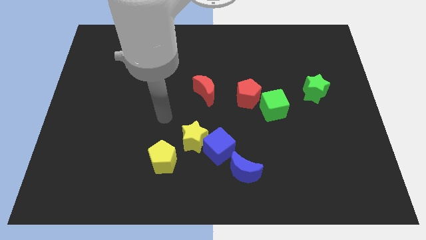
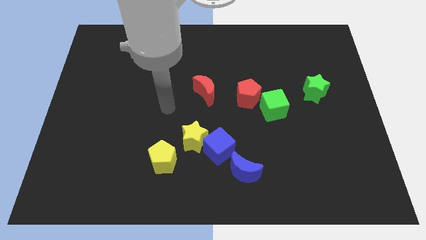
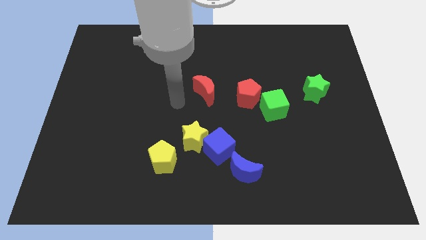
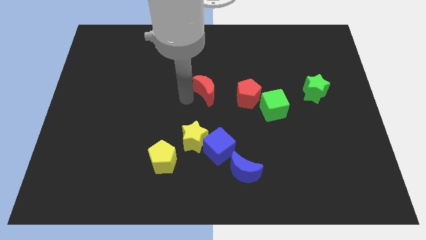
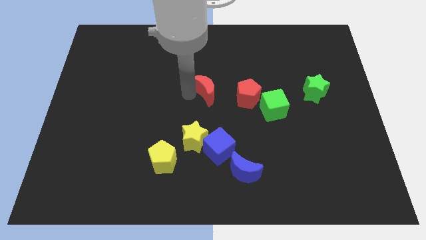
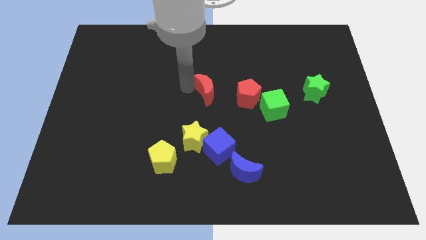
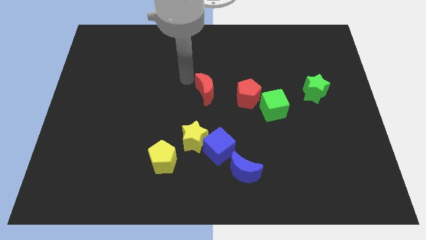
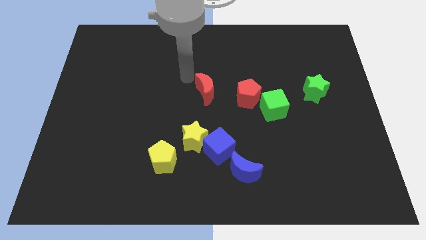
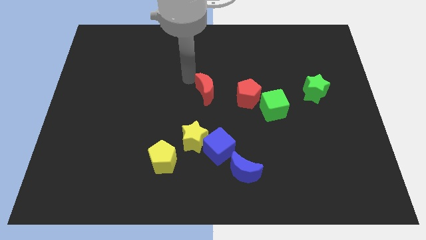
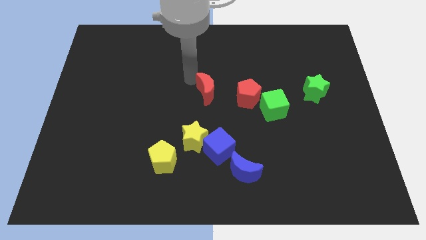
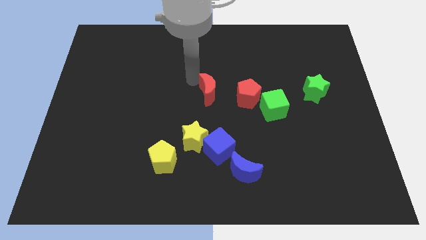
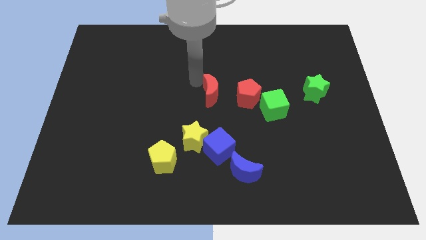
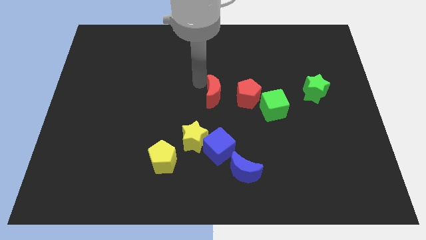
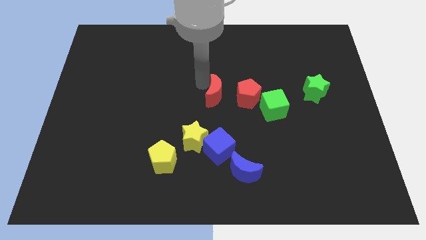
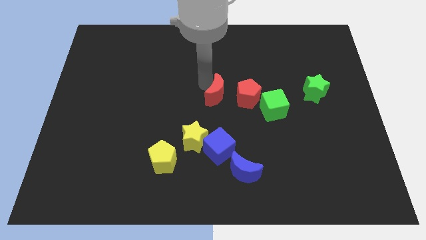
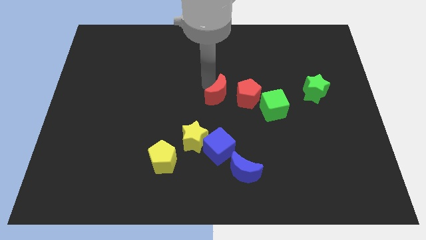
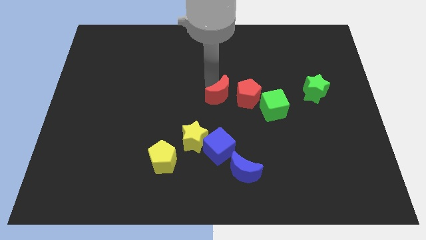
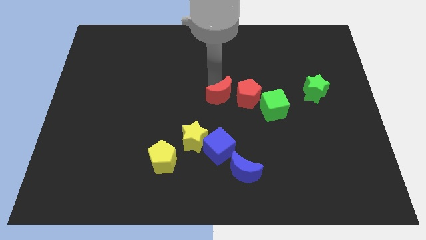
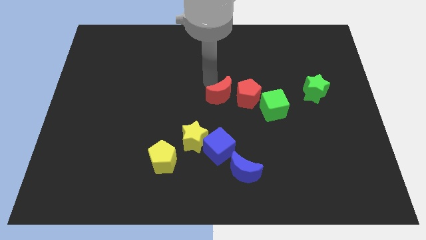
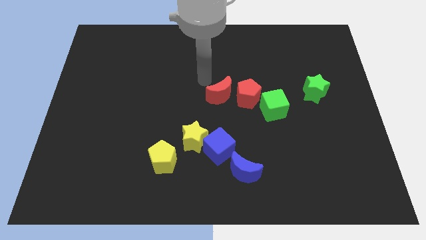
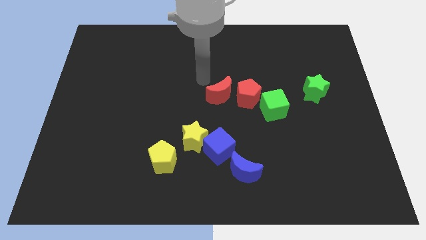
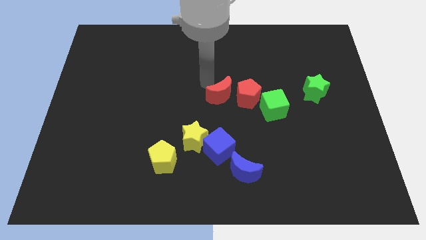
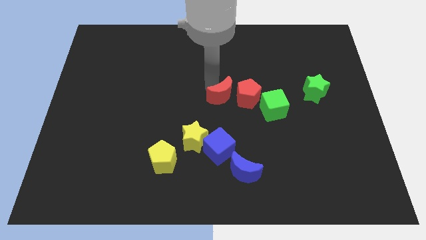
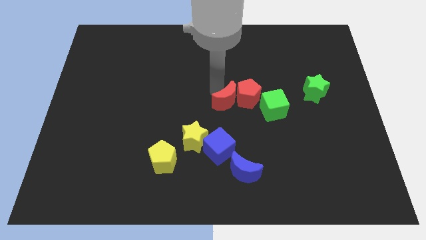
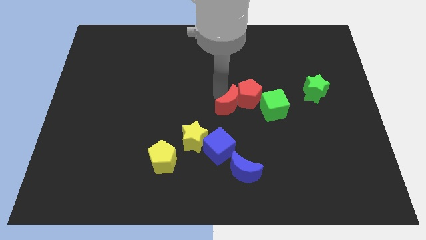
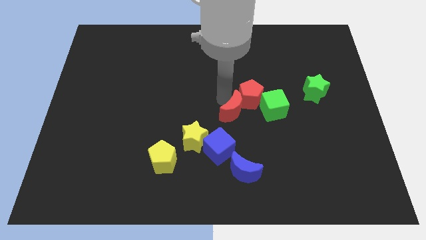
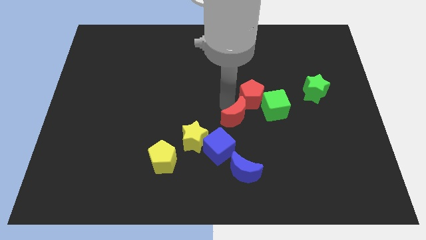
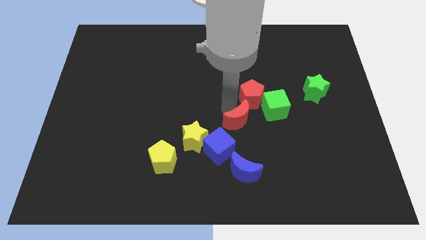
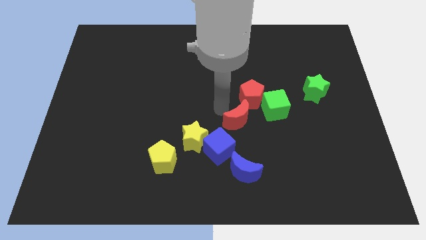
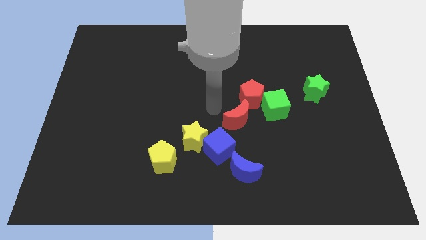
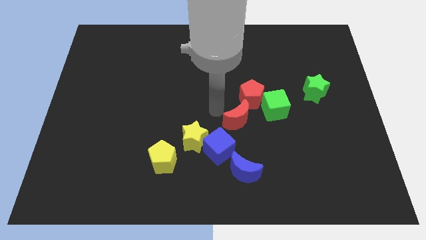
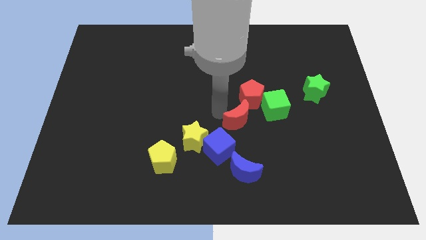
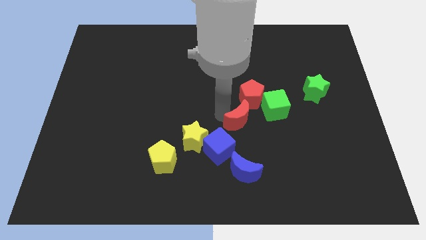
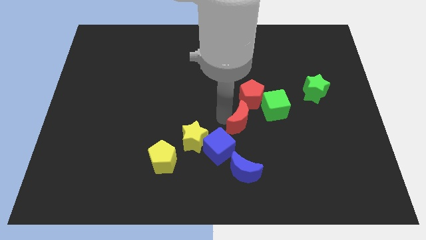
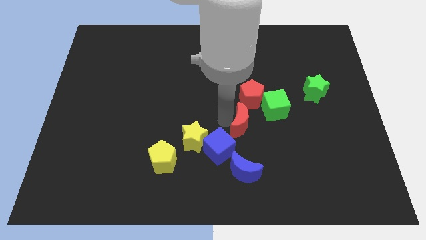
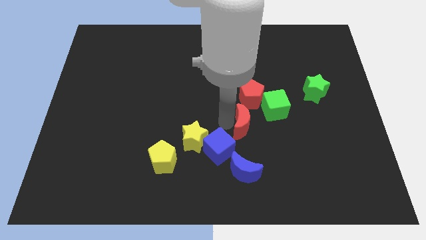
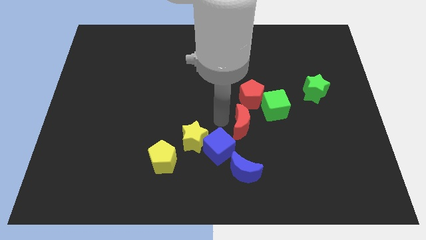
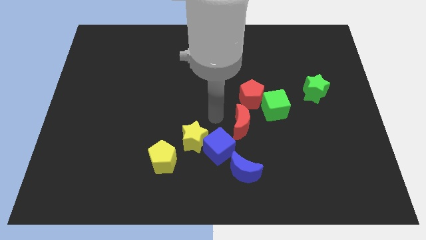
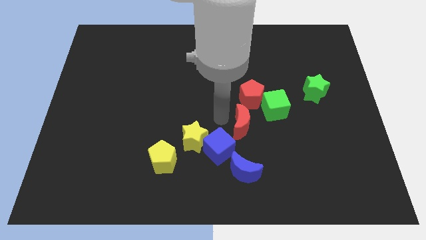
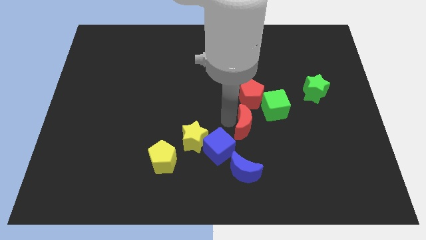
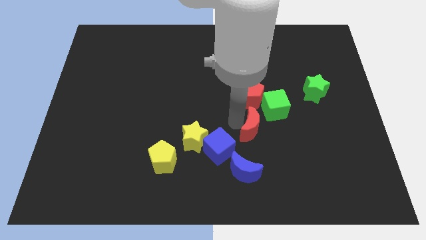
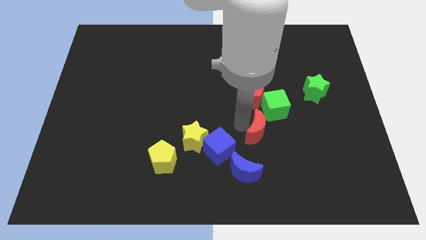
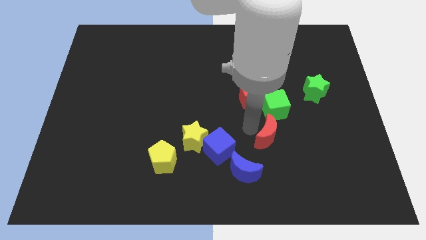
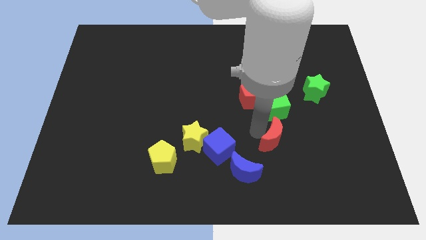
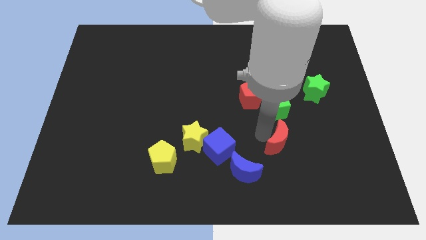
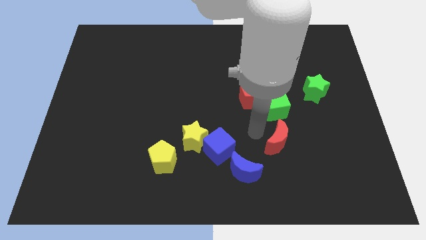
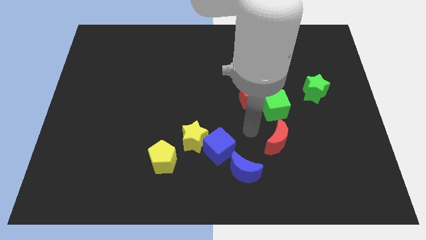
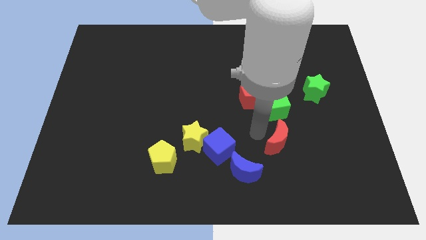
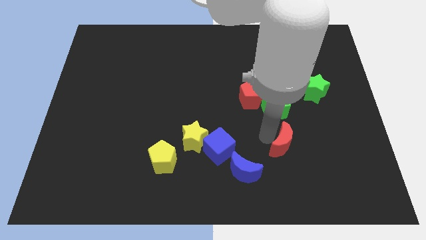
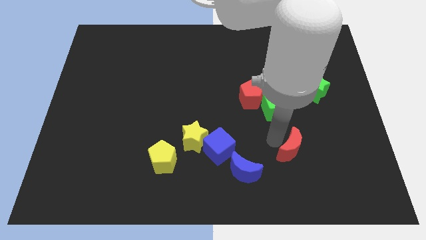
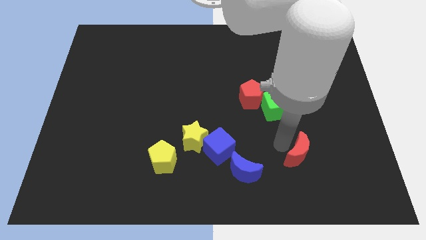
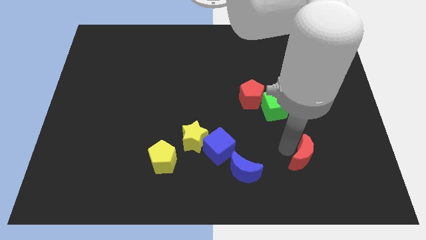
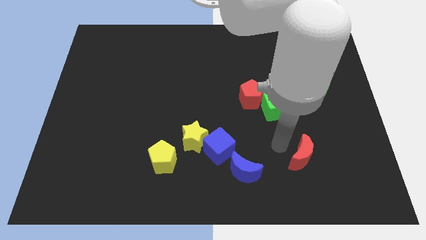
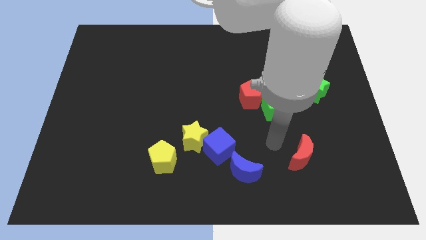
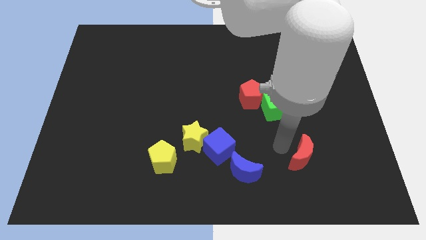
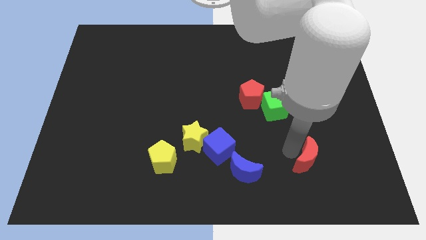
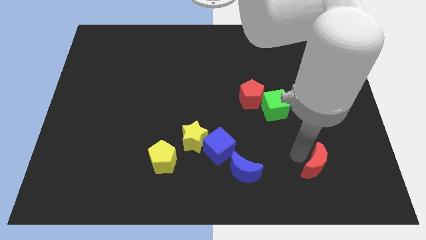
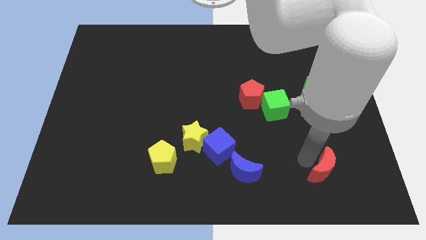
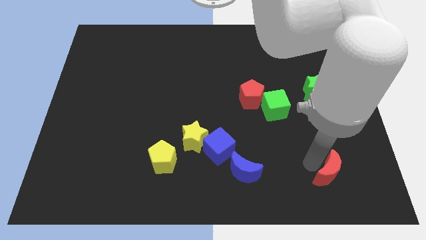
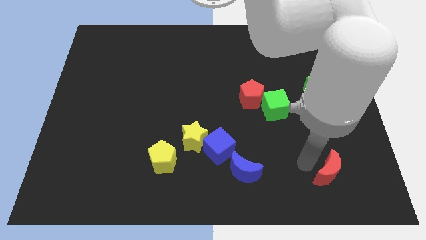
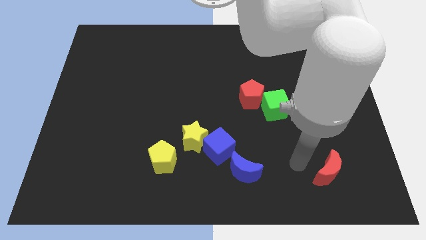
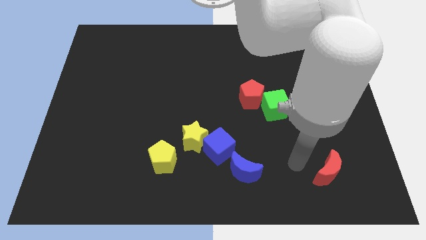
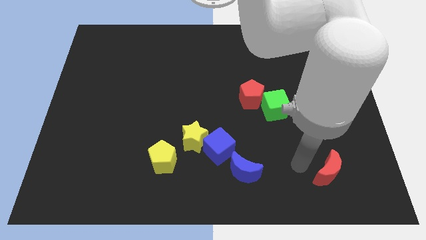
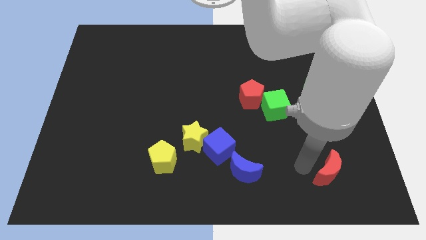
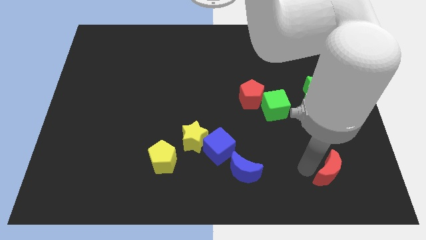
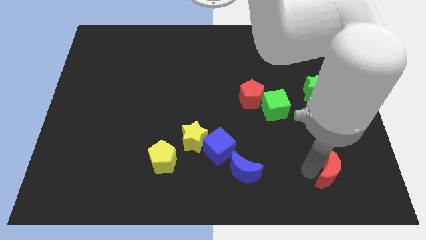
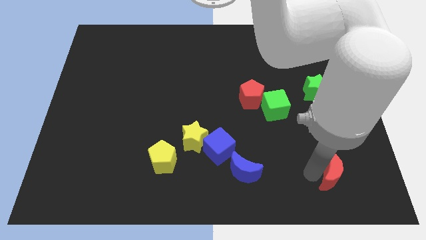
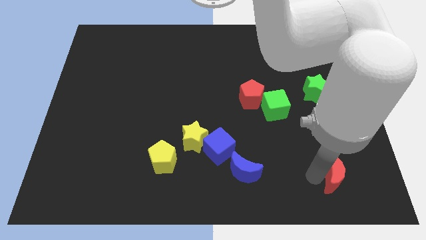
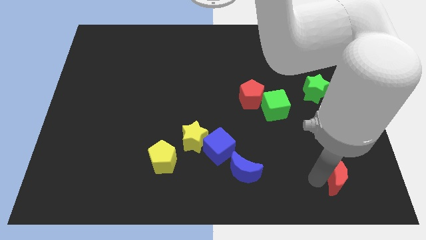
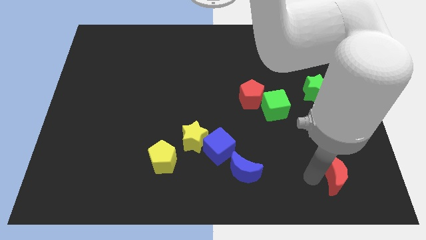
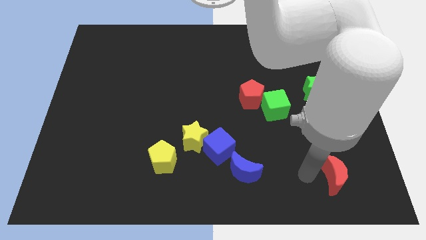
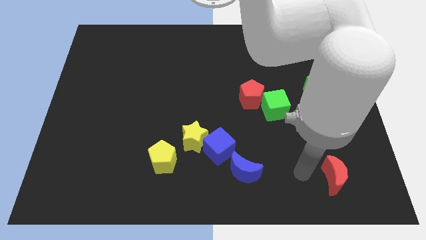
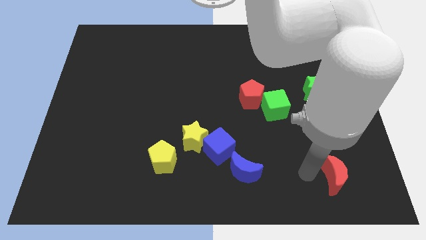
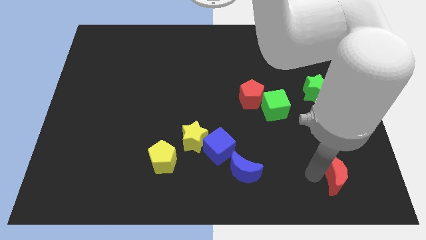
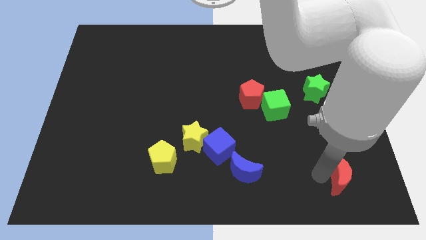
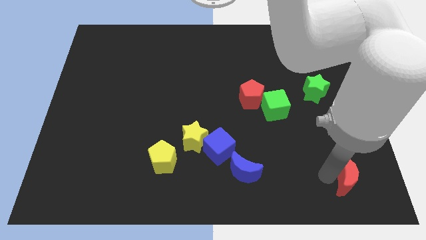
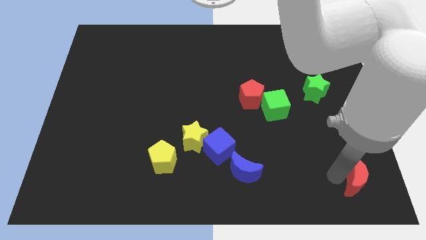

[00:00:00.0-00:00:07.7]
put the red moon to the bottom right of the board
